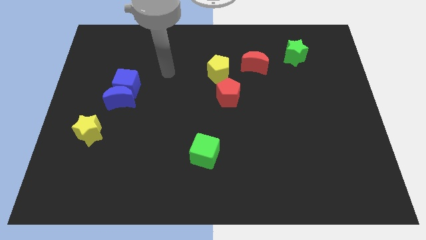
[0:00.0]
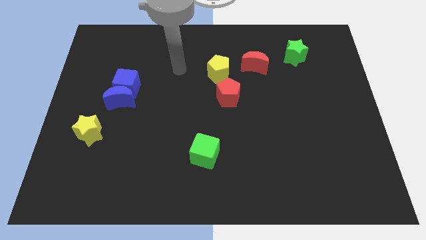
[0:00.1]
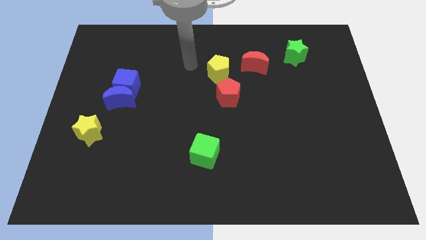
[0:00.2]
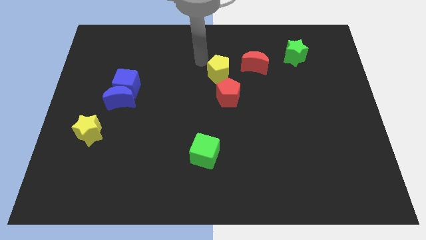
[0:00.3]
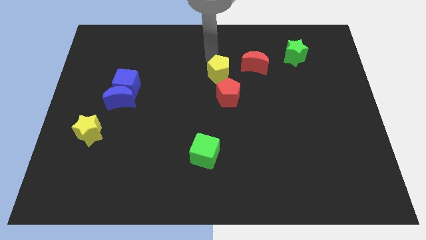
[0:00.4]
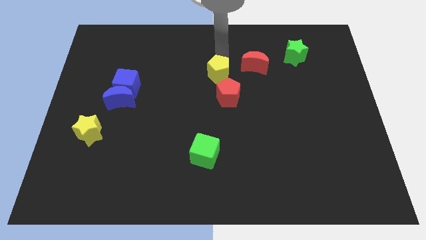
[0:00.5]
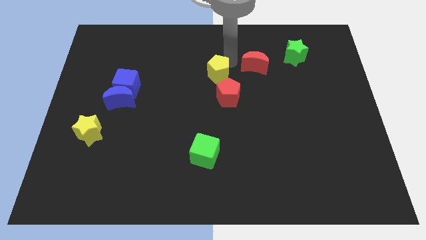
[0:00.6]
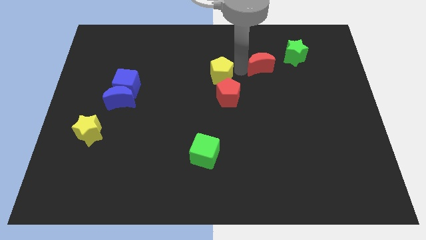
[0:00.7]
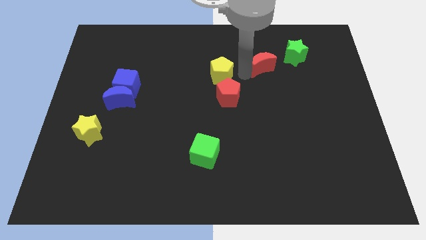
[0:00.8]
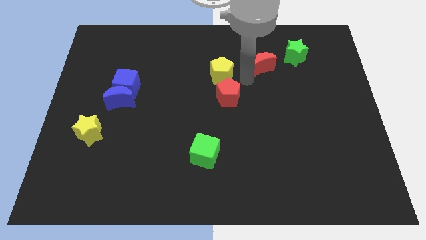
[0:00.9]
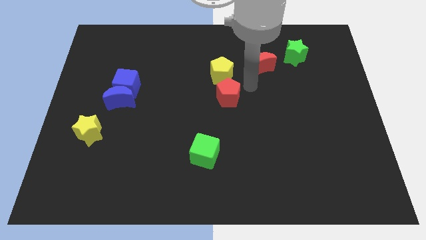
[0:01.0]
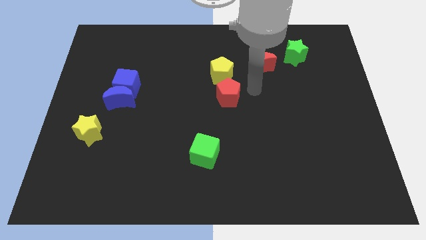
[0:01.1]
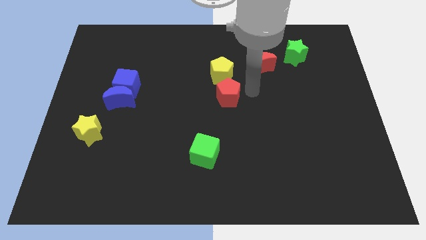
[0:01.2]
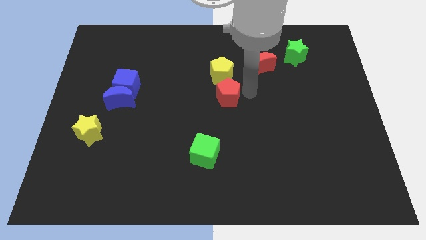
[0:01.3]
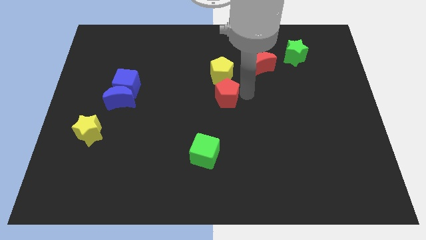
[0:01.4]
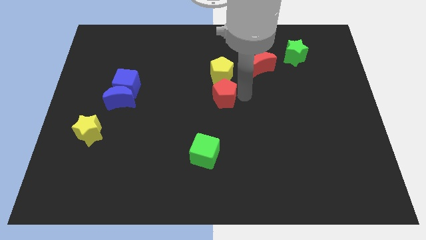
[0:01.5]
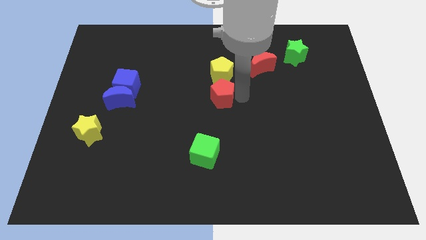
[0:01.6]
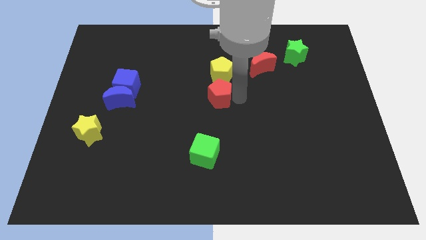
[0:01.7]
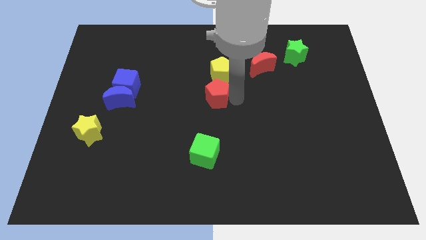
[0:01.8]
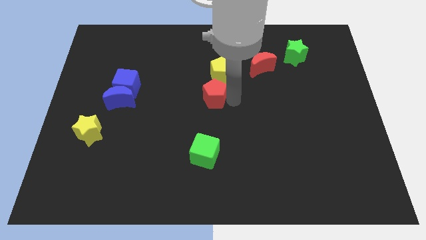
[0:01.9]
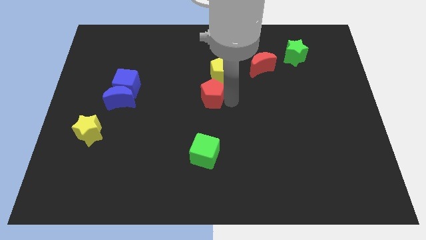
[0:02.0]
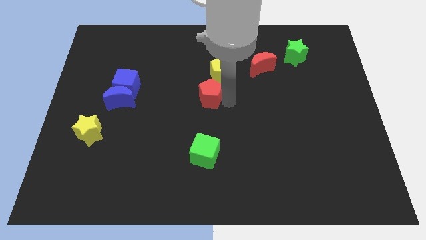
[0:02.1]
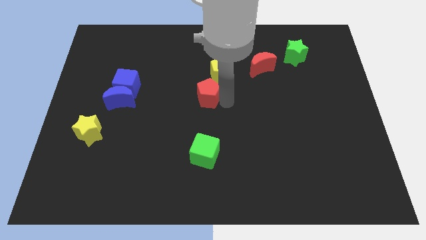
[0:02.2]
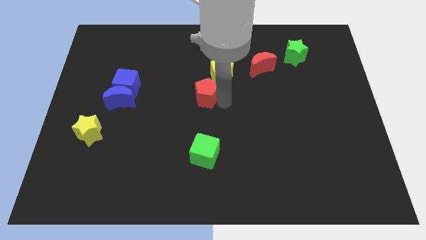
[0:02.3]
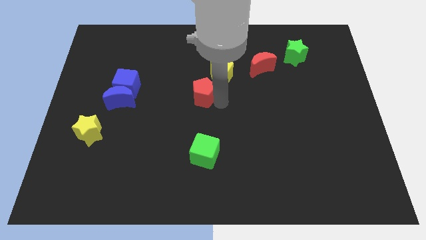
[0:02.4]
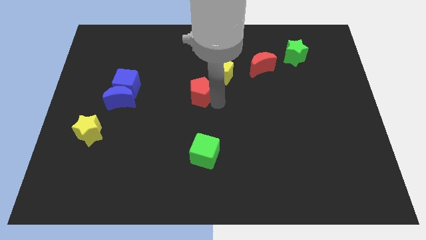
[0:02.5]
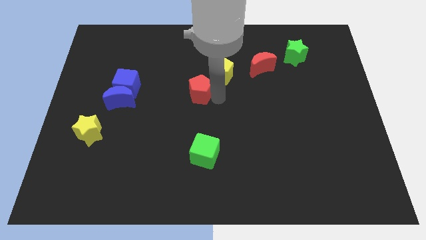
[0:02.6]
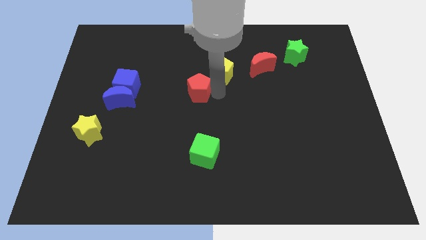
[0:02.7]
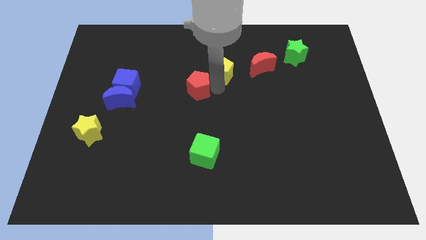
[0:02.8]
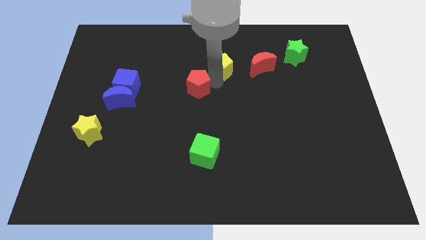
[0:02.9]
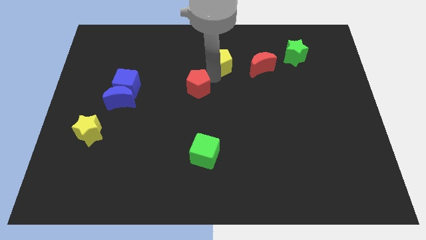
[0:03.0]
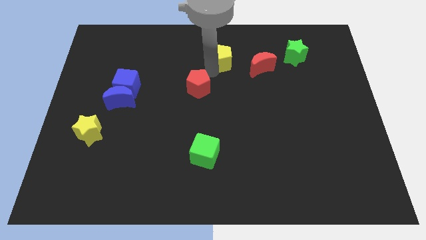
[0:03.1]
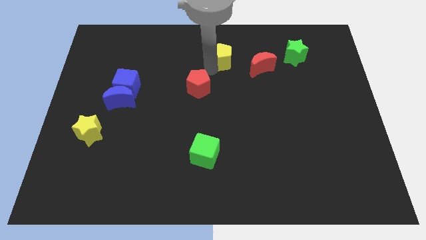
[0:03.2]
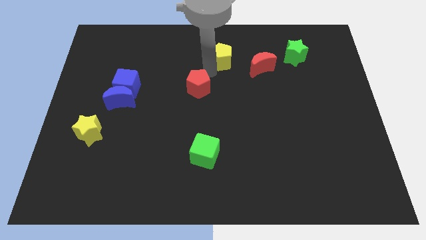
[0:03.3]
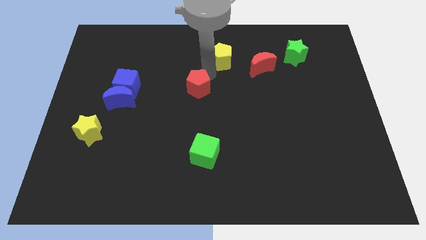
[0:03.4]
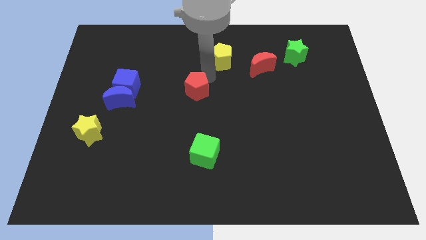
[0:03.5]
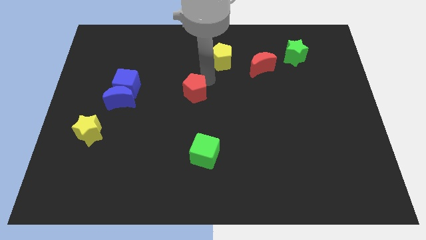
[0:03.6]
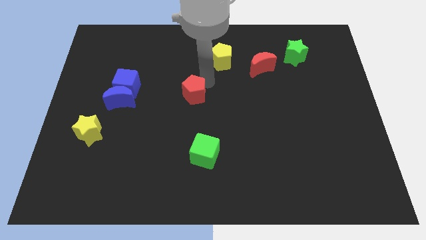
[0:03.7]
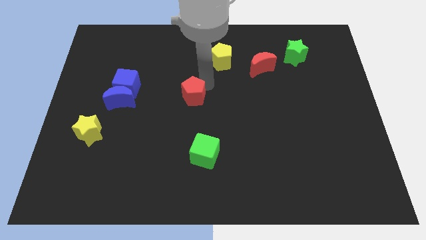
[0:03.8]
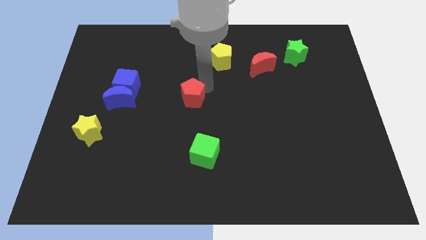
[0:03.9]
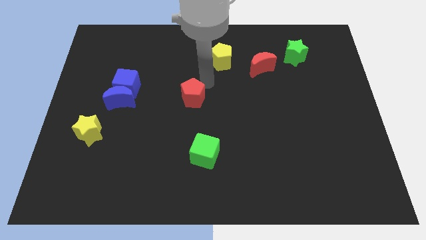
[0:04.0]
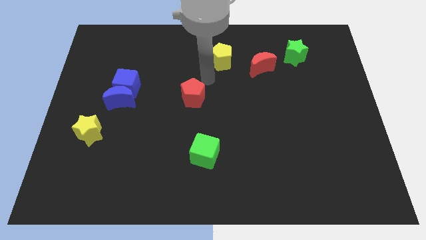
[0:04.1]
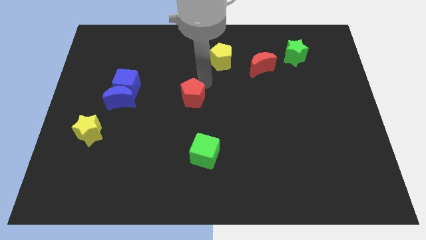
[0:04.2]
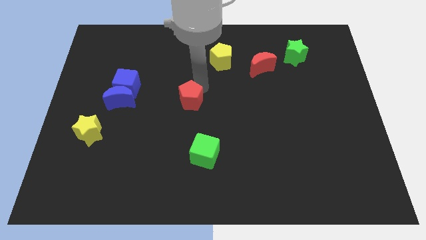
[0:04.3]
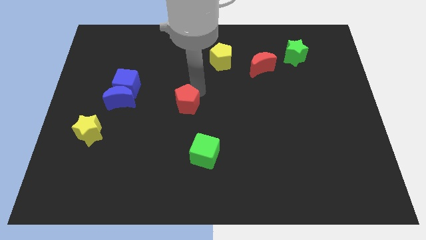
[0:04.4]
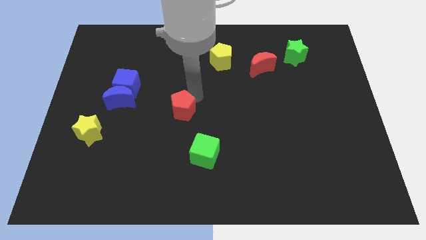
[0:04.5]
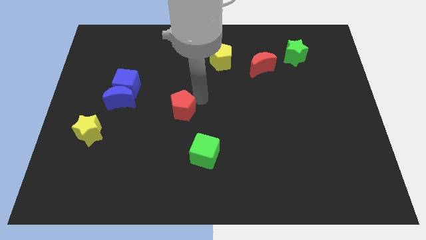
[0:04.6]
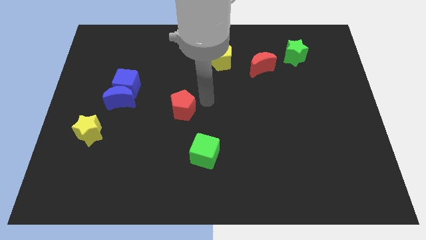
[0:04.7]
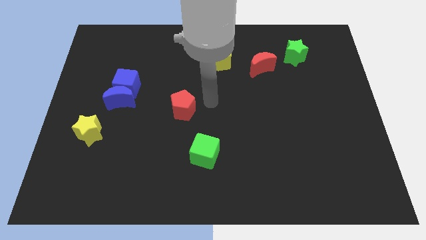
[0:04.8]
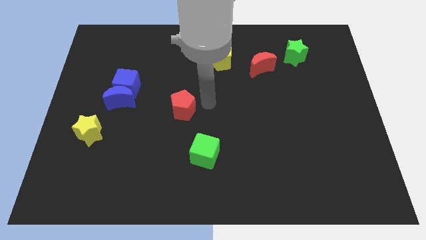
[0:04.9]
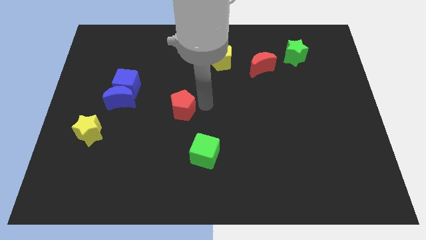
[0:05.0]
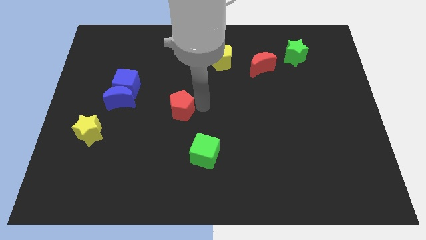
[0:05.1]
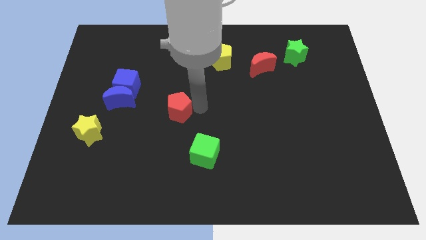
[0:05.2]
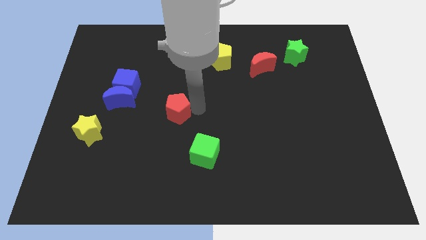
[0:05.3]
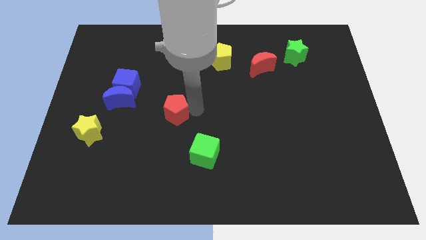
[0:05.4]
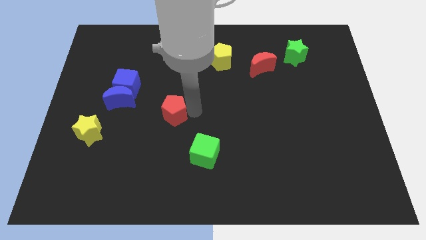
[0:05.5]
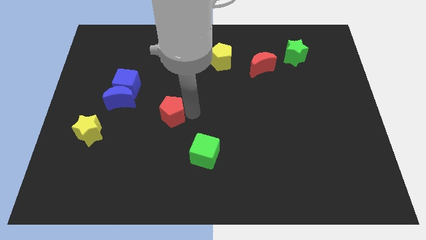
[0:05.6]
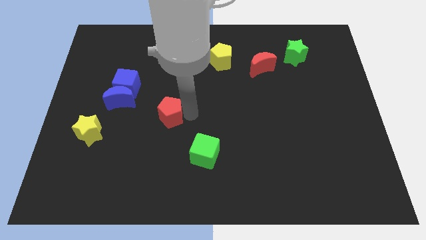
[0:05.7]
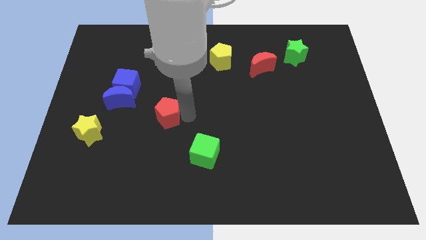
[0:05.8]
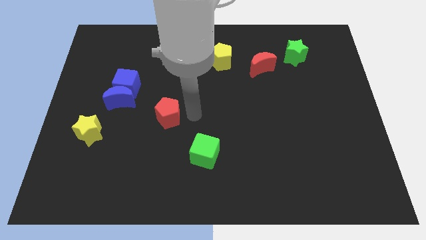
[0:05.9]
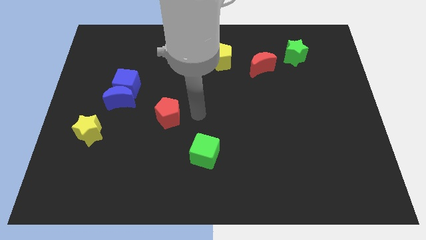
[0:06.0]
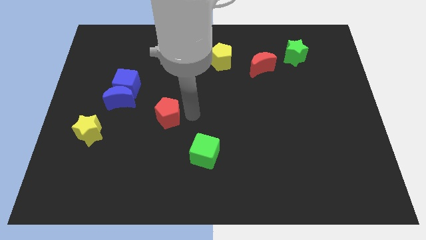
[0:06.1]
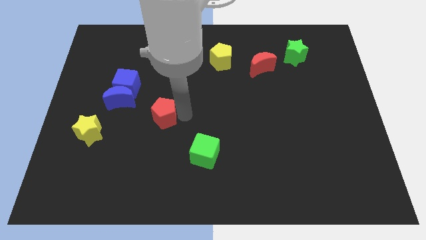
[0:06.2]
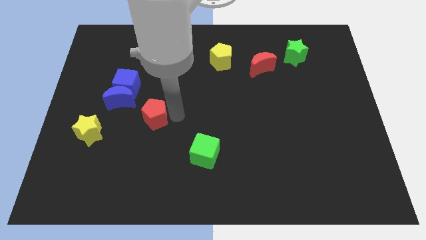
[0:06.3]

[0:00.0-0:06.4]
push the red pentagon diagonally down and to the right of the blue moon

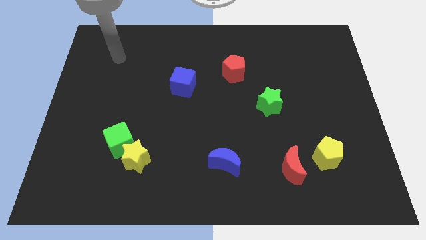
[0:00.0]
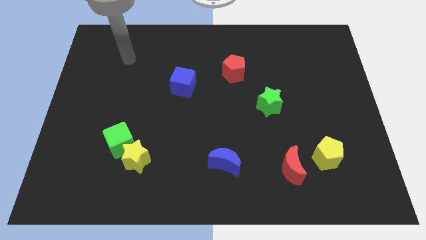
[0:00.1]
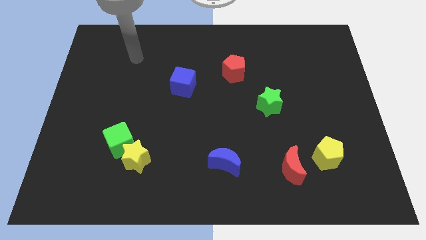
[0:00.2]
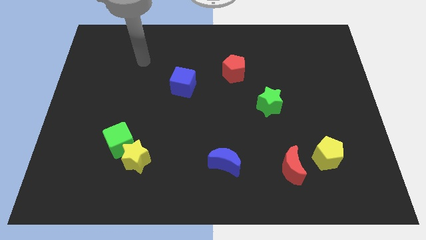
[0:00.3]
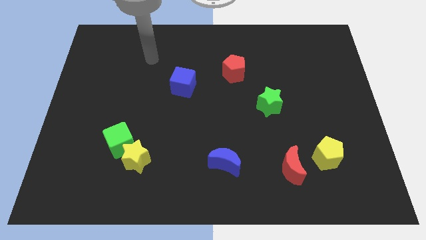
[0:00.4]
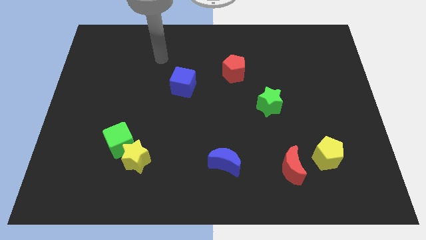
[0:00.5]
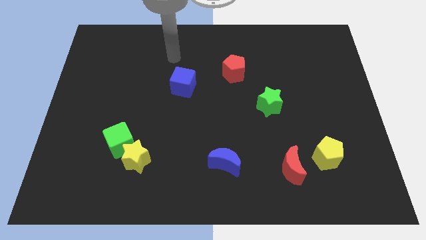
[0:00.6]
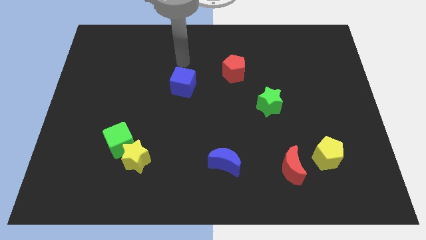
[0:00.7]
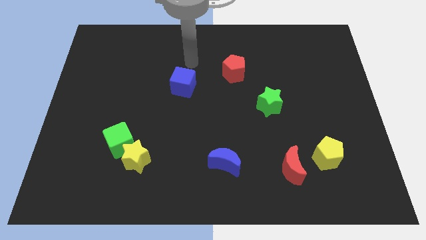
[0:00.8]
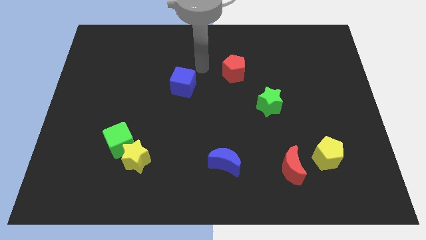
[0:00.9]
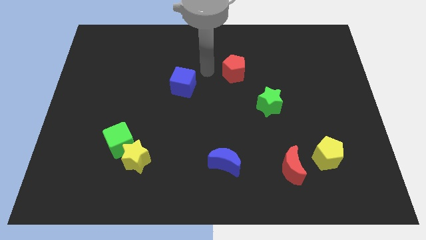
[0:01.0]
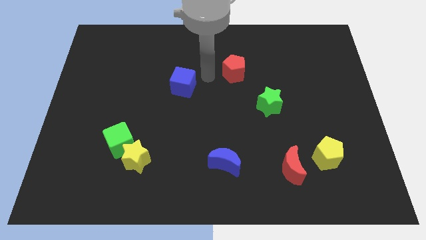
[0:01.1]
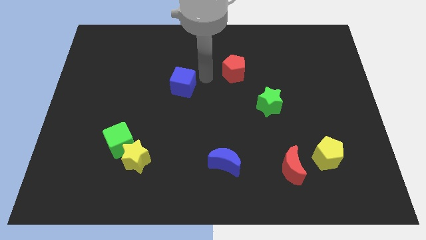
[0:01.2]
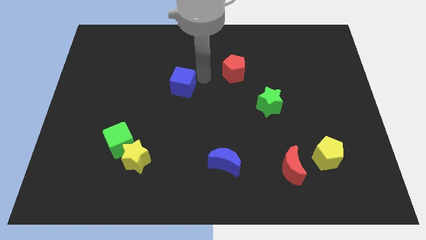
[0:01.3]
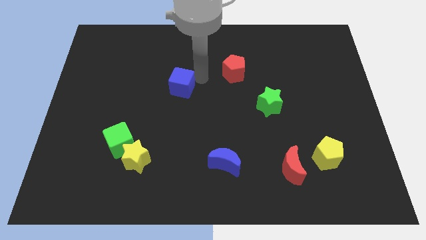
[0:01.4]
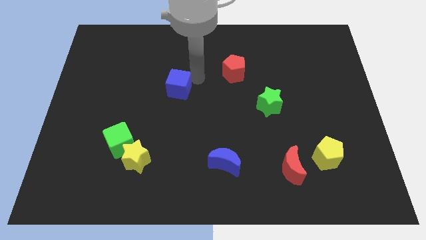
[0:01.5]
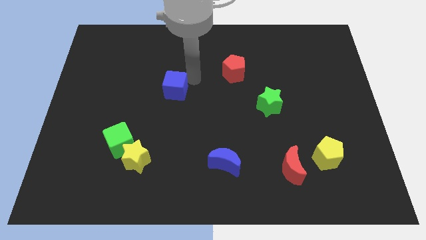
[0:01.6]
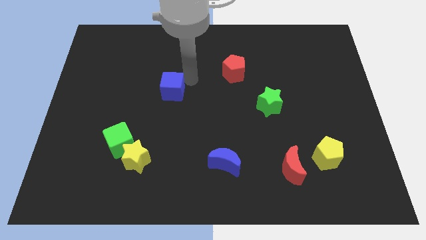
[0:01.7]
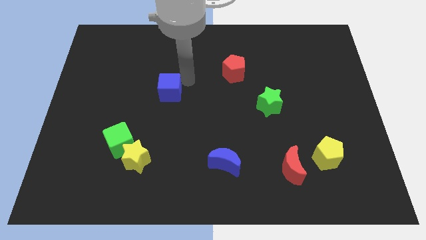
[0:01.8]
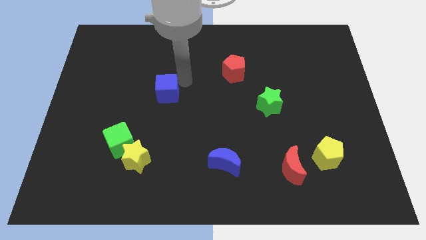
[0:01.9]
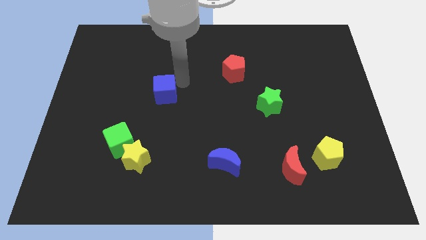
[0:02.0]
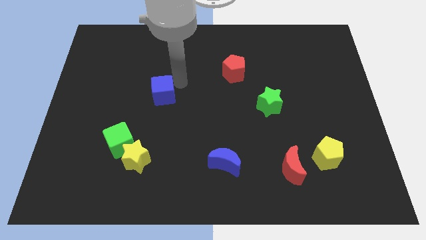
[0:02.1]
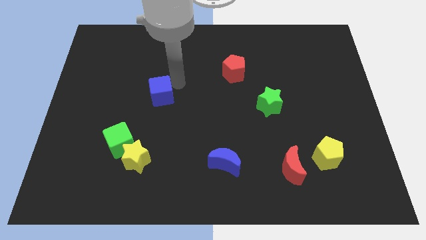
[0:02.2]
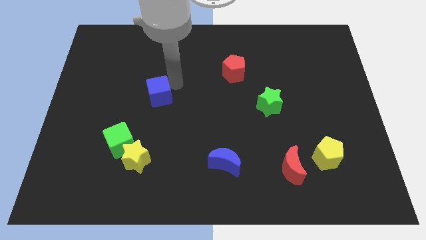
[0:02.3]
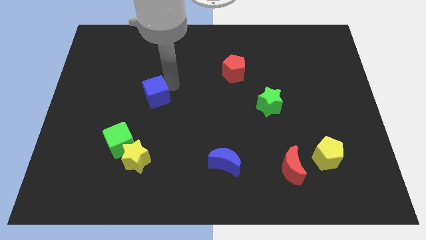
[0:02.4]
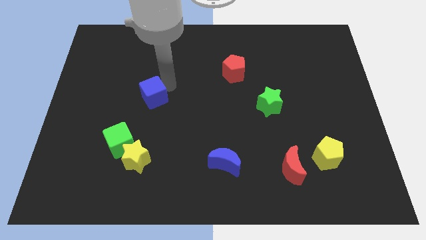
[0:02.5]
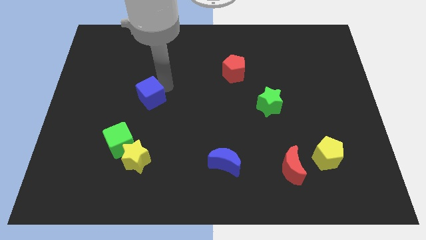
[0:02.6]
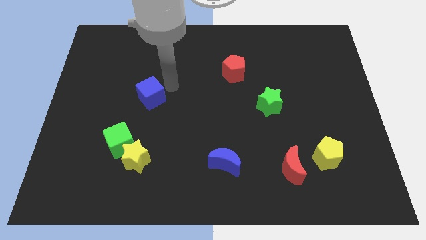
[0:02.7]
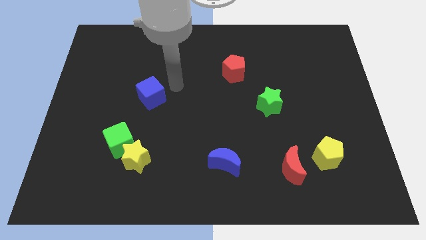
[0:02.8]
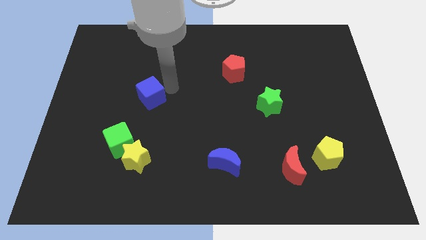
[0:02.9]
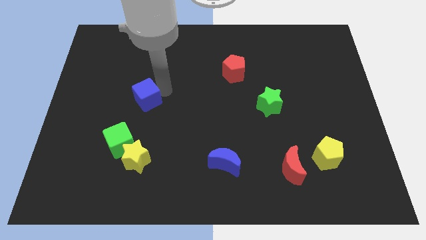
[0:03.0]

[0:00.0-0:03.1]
put the blue cube above the green cube
